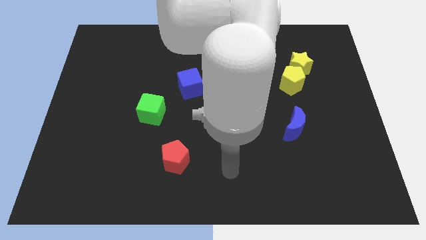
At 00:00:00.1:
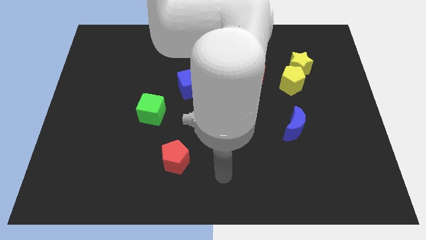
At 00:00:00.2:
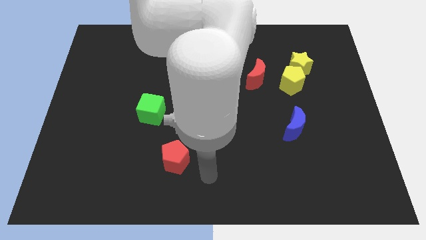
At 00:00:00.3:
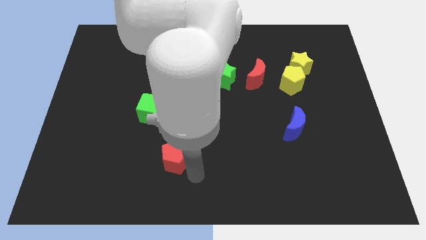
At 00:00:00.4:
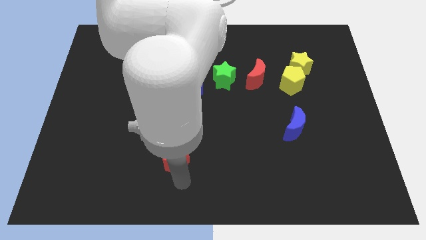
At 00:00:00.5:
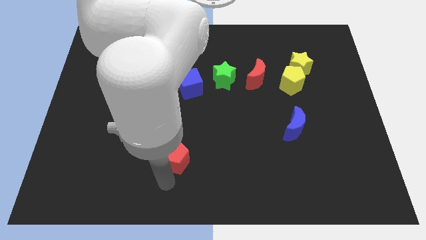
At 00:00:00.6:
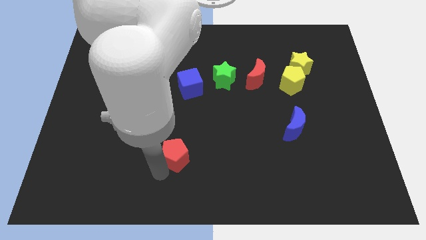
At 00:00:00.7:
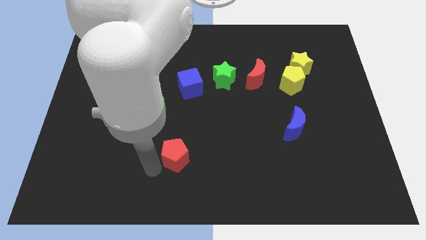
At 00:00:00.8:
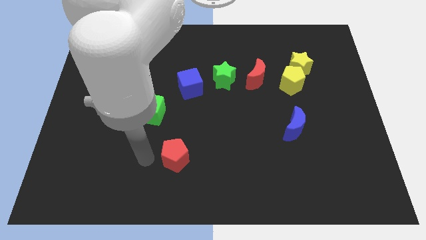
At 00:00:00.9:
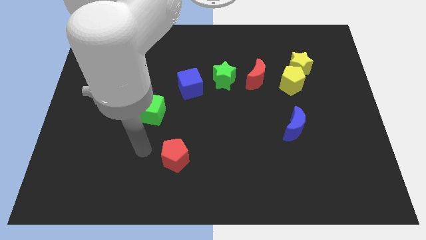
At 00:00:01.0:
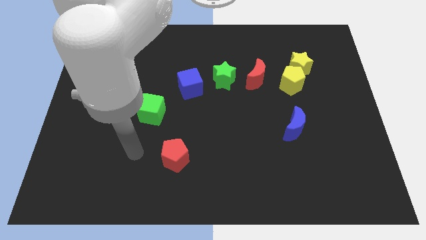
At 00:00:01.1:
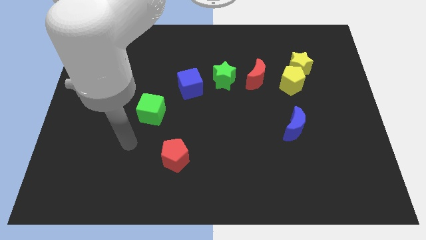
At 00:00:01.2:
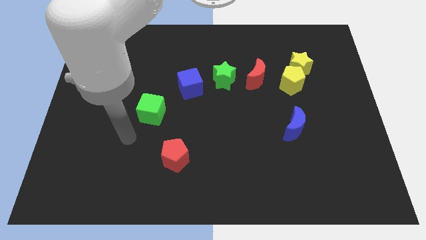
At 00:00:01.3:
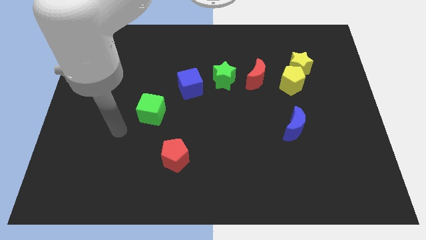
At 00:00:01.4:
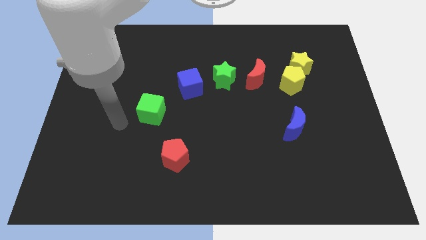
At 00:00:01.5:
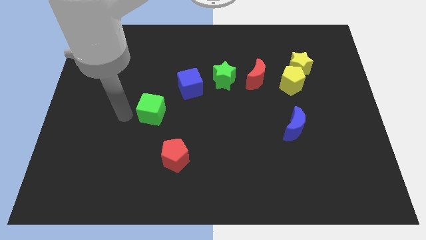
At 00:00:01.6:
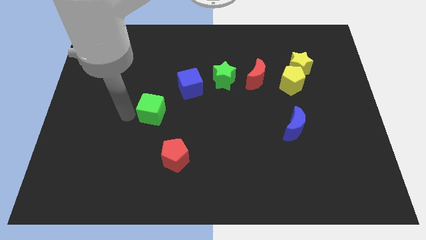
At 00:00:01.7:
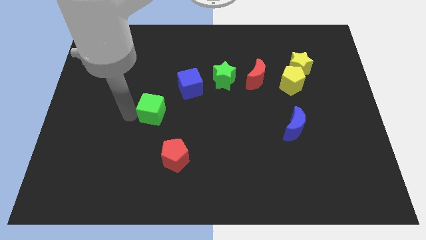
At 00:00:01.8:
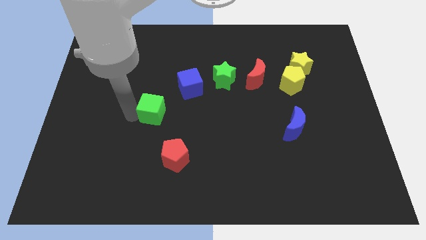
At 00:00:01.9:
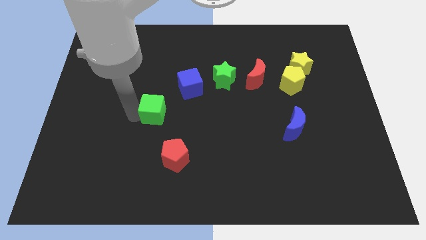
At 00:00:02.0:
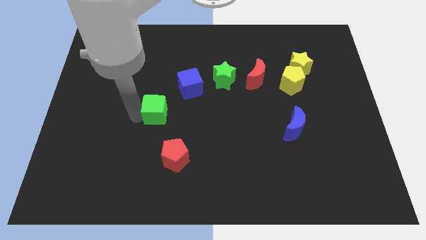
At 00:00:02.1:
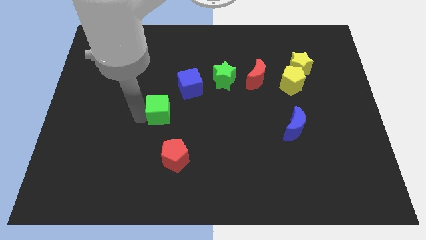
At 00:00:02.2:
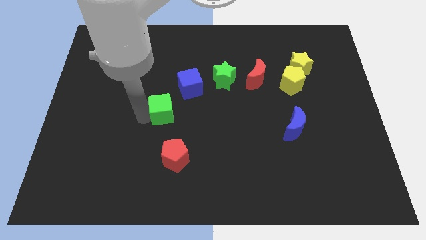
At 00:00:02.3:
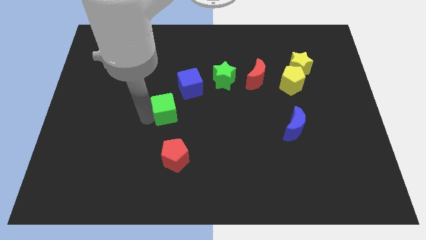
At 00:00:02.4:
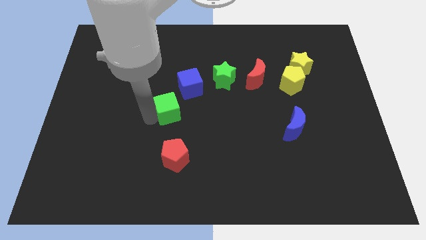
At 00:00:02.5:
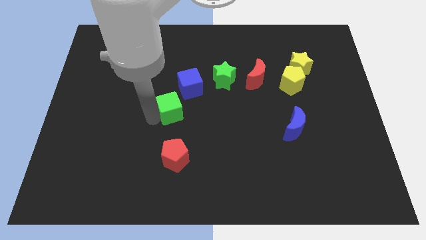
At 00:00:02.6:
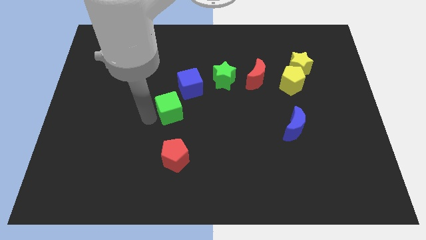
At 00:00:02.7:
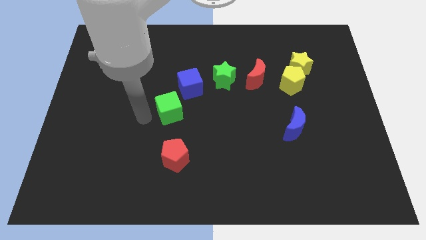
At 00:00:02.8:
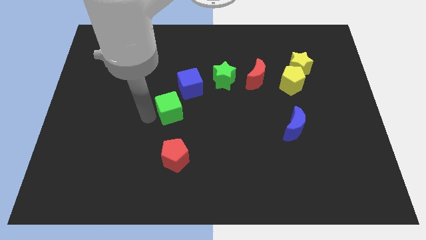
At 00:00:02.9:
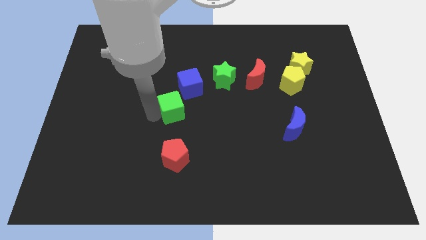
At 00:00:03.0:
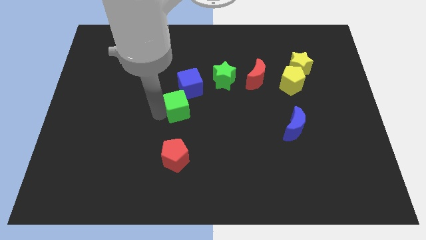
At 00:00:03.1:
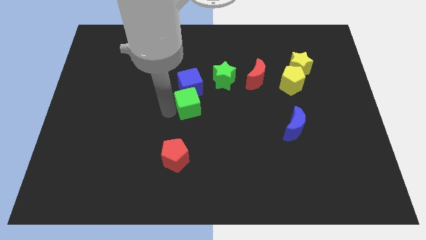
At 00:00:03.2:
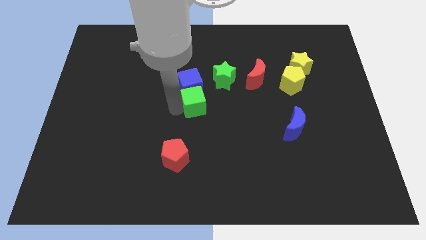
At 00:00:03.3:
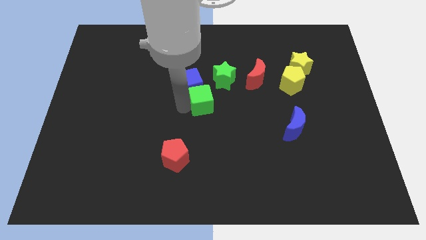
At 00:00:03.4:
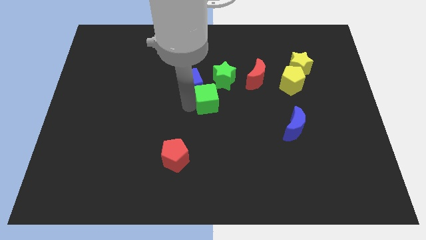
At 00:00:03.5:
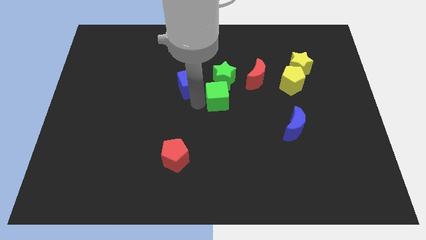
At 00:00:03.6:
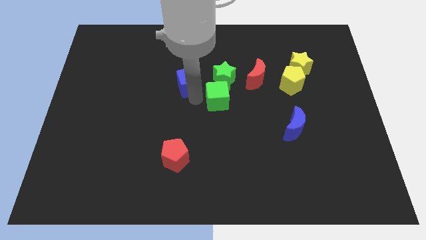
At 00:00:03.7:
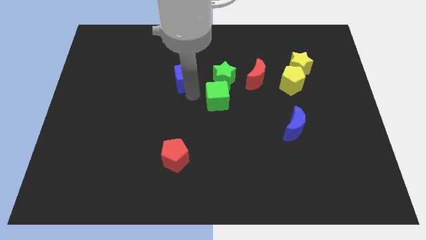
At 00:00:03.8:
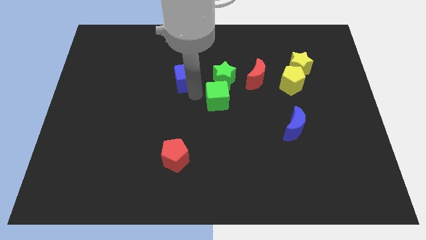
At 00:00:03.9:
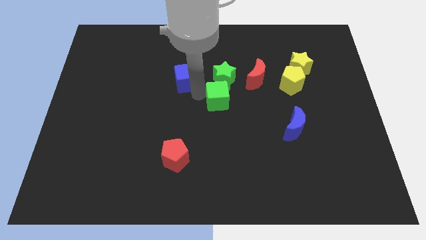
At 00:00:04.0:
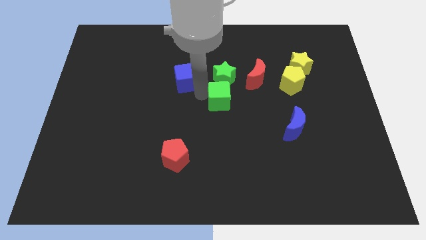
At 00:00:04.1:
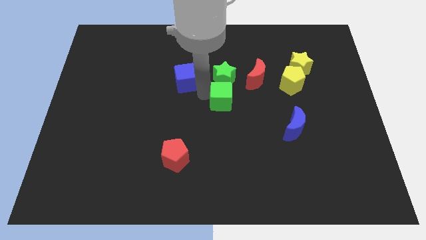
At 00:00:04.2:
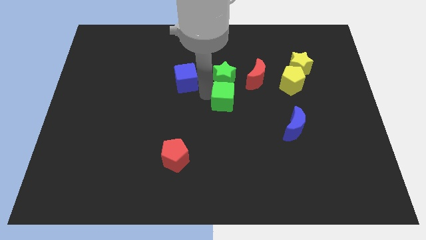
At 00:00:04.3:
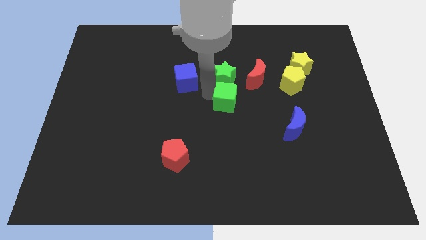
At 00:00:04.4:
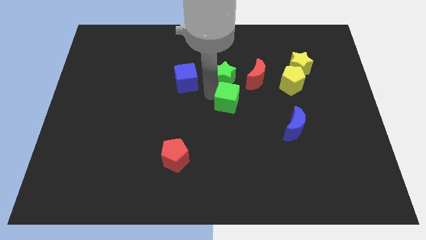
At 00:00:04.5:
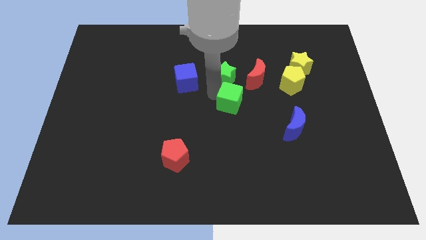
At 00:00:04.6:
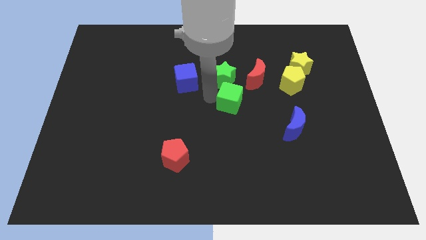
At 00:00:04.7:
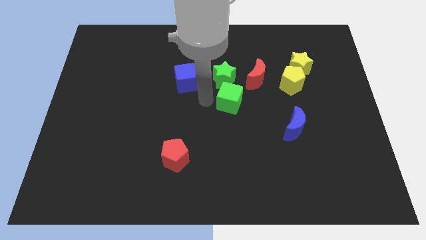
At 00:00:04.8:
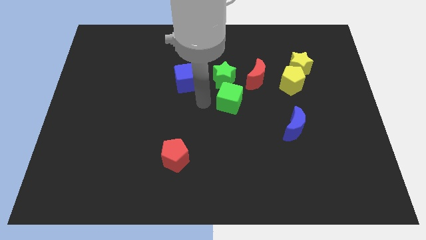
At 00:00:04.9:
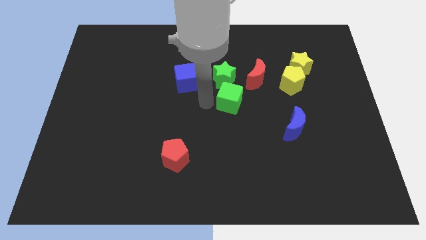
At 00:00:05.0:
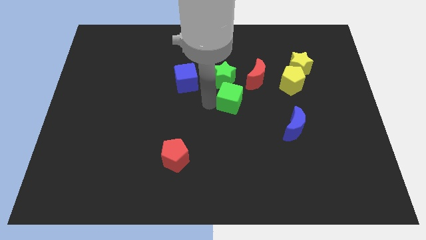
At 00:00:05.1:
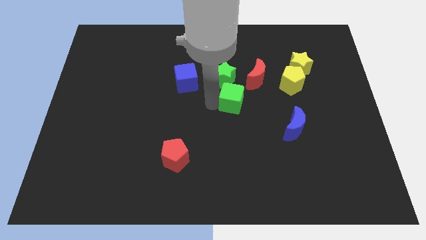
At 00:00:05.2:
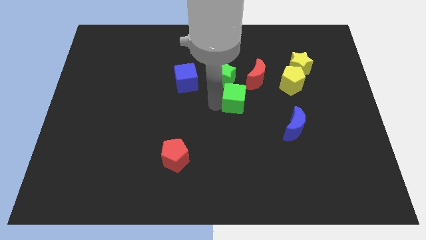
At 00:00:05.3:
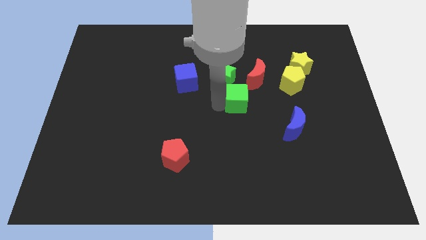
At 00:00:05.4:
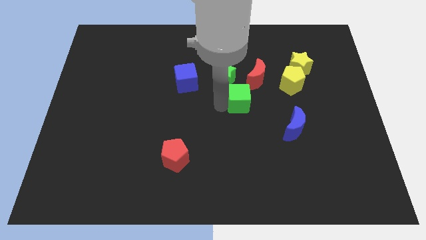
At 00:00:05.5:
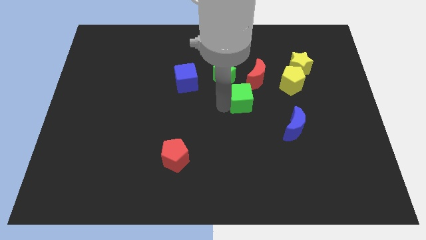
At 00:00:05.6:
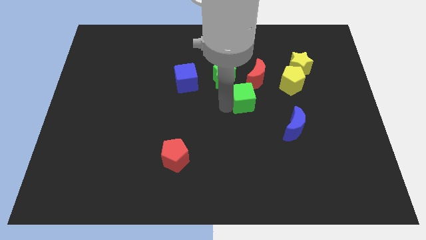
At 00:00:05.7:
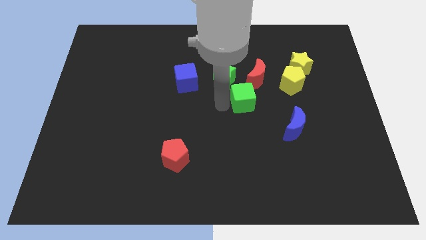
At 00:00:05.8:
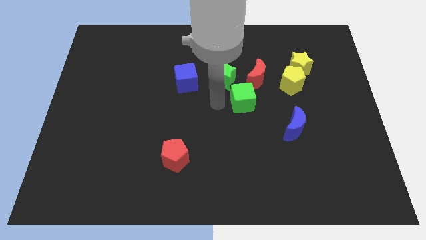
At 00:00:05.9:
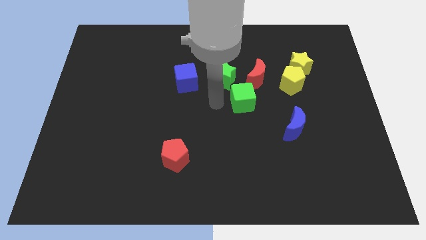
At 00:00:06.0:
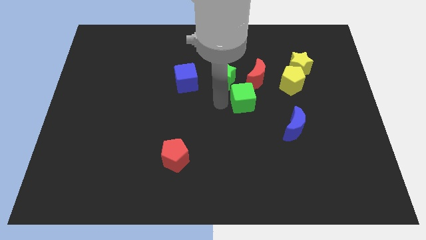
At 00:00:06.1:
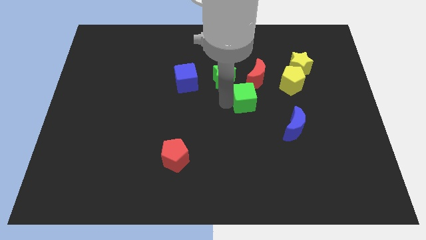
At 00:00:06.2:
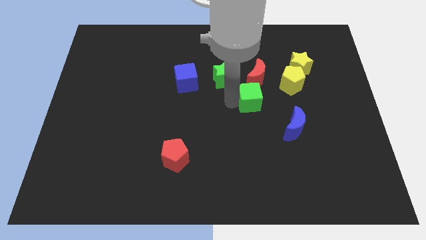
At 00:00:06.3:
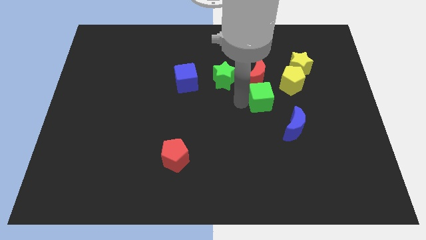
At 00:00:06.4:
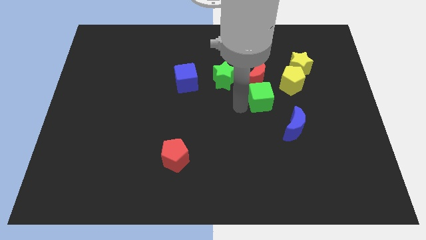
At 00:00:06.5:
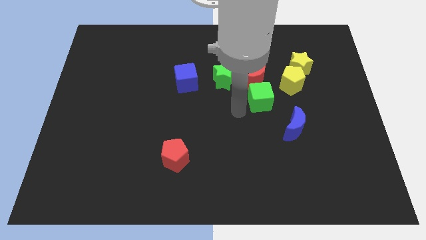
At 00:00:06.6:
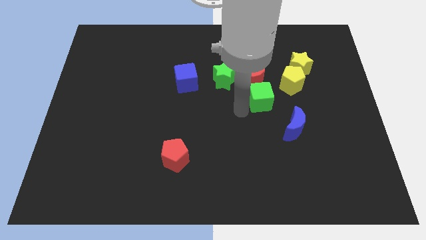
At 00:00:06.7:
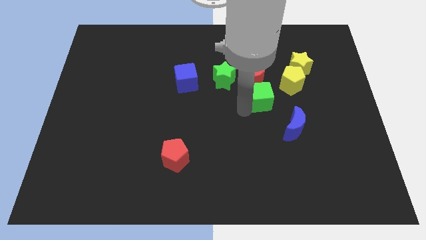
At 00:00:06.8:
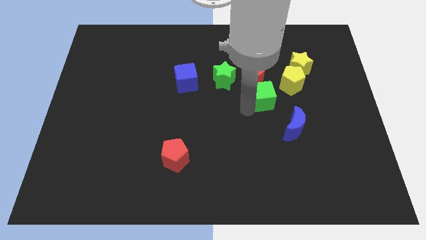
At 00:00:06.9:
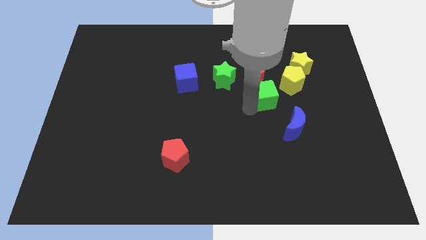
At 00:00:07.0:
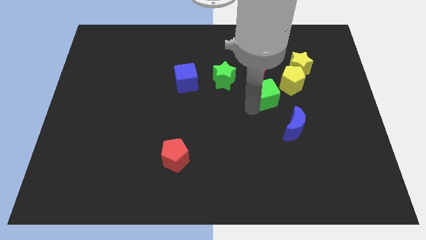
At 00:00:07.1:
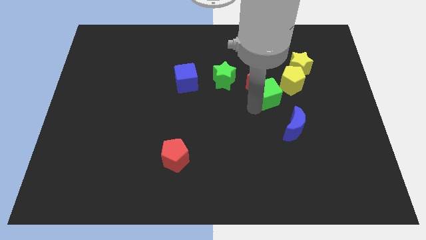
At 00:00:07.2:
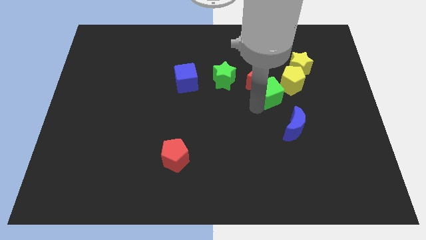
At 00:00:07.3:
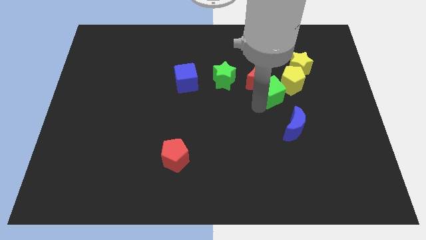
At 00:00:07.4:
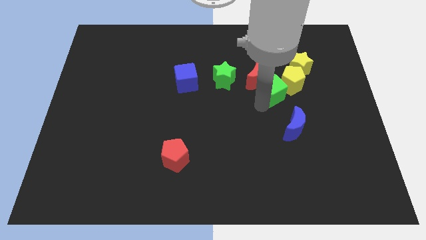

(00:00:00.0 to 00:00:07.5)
put the green cube towards the yellow pentagon
